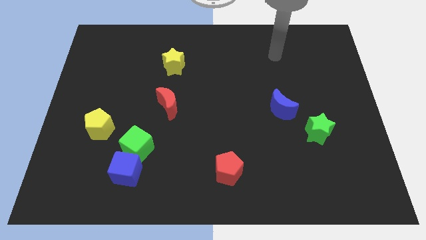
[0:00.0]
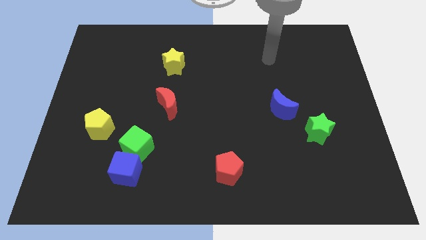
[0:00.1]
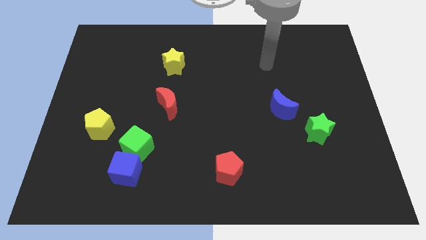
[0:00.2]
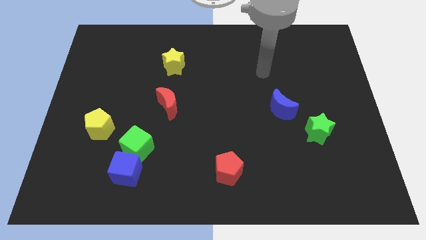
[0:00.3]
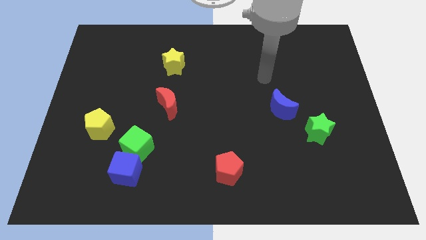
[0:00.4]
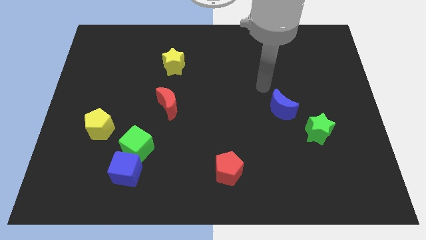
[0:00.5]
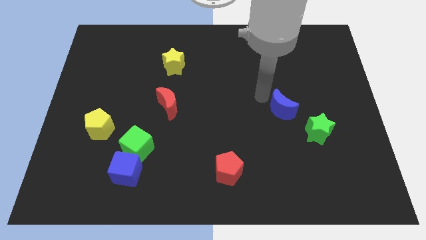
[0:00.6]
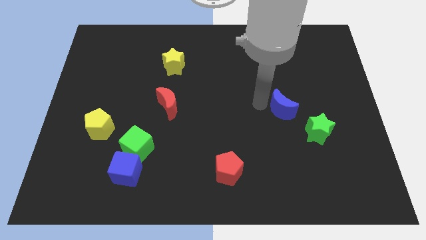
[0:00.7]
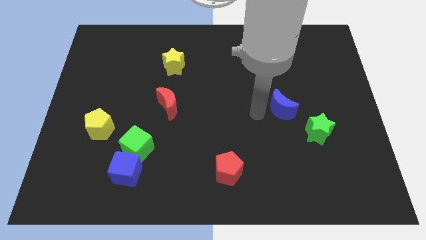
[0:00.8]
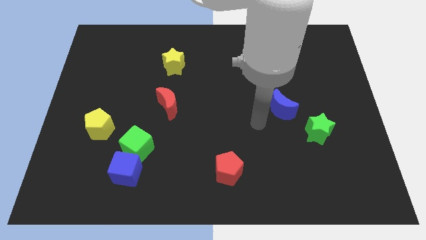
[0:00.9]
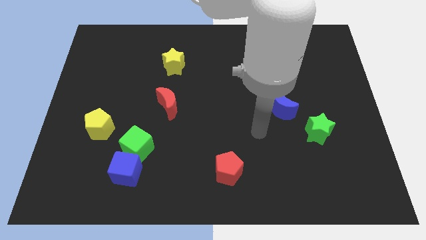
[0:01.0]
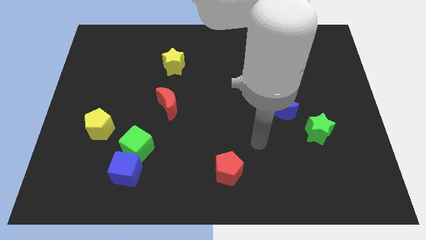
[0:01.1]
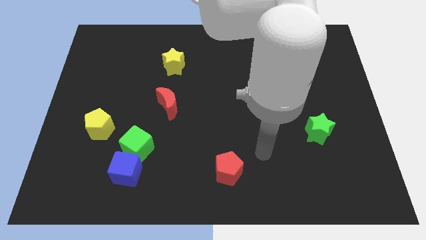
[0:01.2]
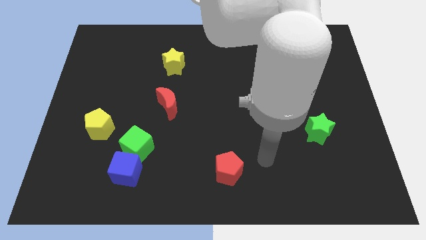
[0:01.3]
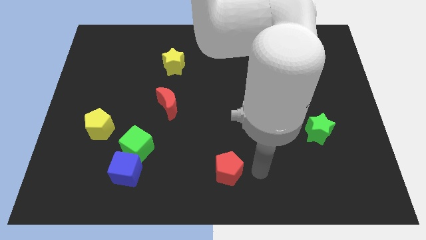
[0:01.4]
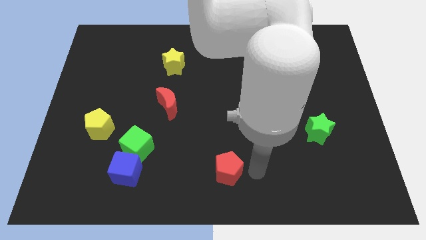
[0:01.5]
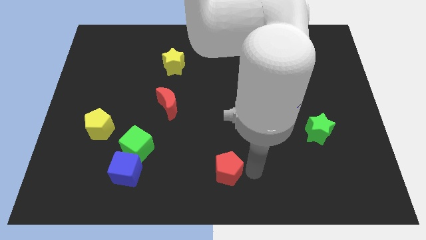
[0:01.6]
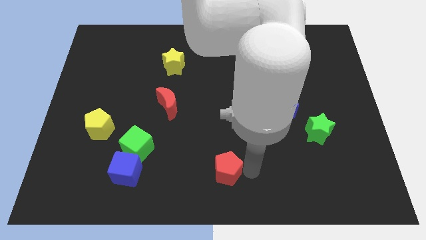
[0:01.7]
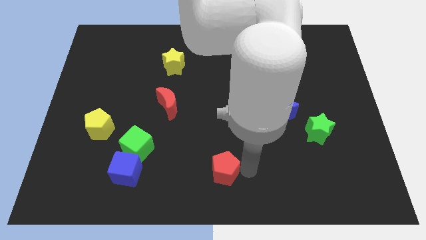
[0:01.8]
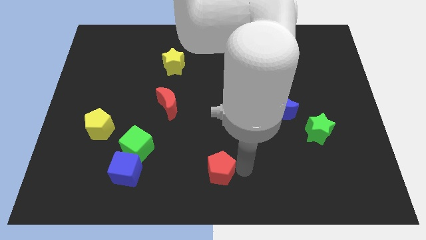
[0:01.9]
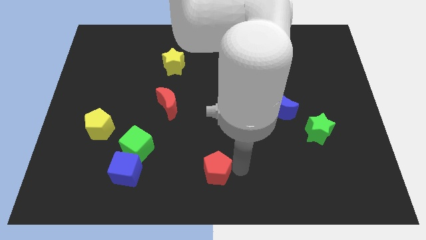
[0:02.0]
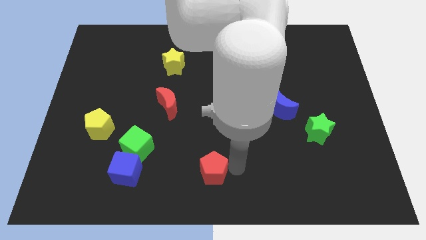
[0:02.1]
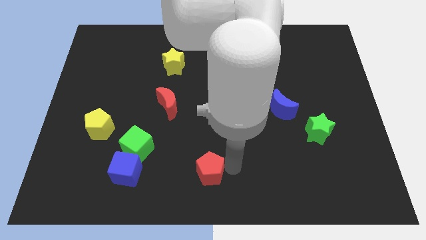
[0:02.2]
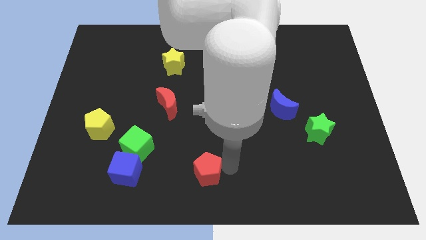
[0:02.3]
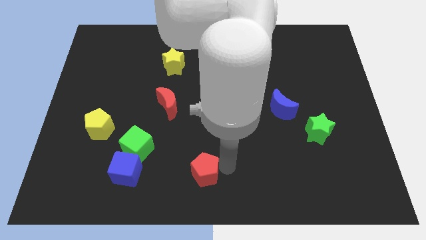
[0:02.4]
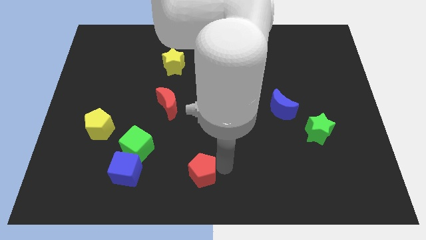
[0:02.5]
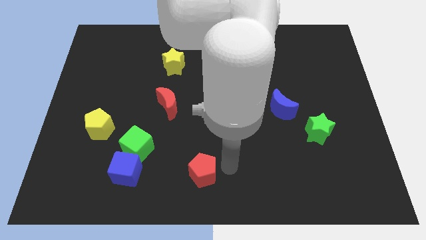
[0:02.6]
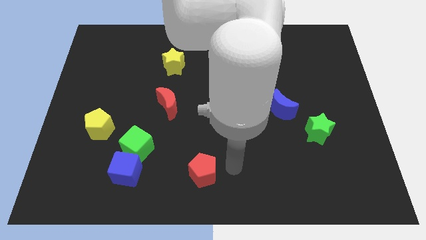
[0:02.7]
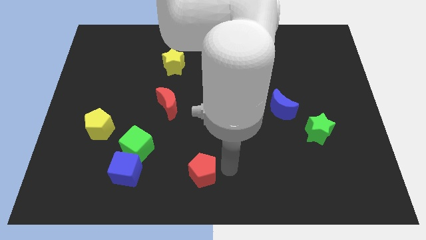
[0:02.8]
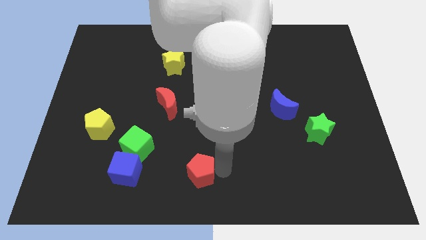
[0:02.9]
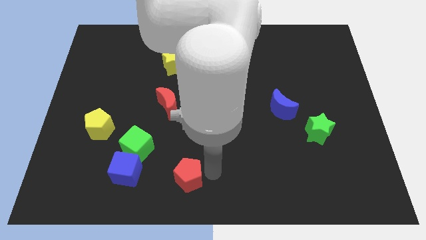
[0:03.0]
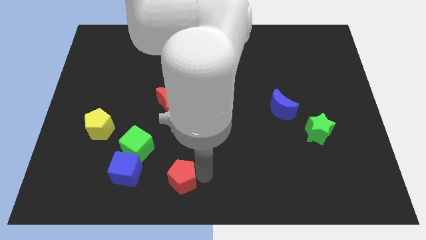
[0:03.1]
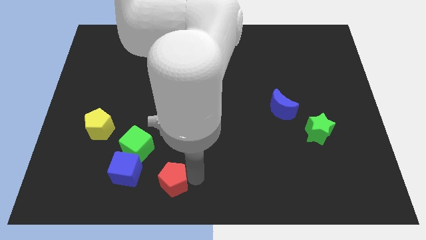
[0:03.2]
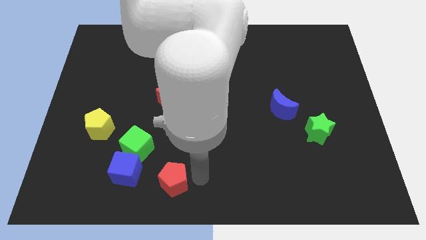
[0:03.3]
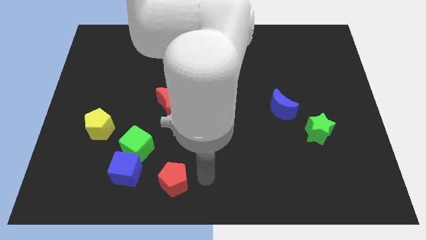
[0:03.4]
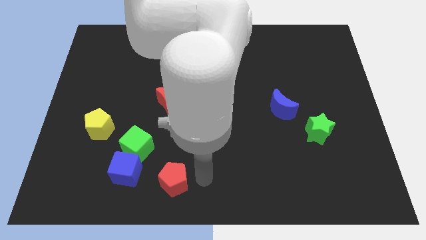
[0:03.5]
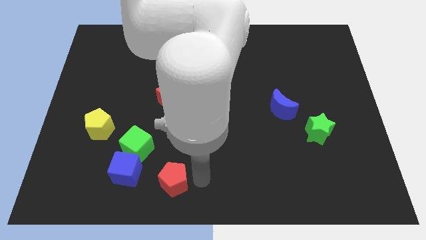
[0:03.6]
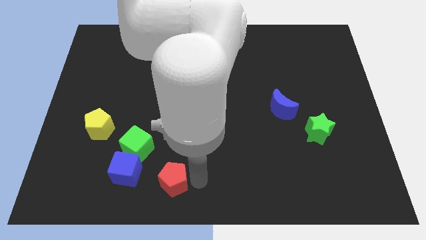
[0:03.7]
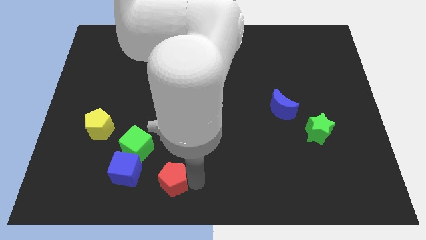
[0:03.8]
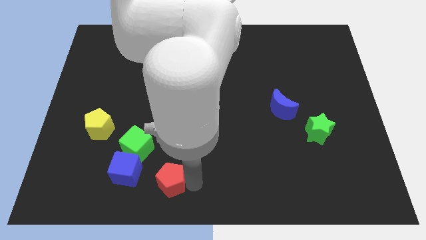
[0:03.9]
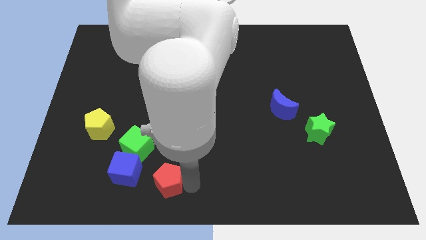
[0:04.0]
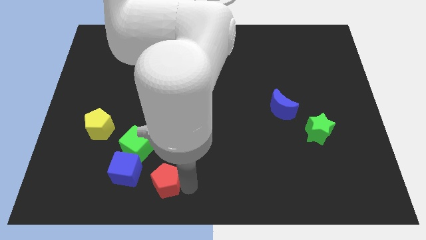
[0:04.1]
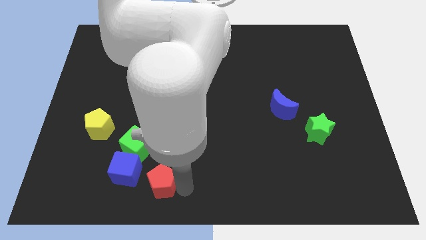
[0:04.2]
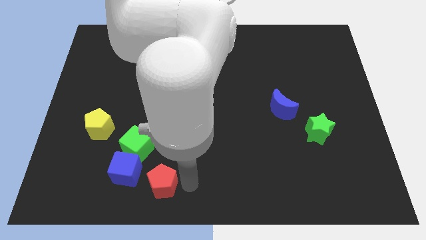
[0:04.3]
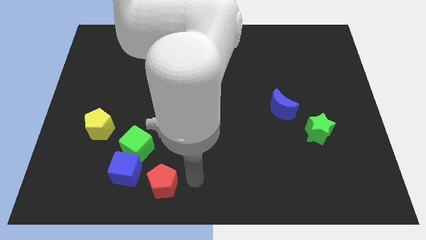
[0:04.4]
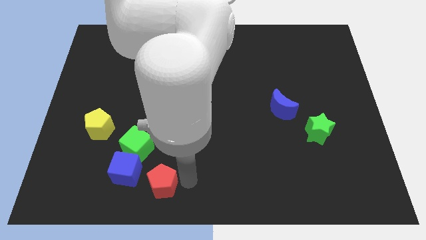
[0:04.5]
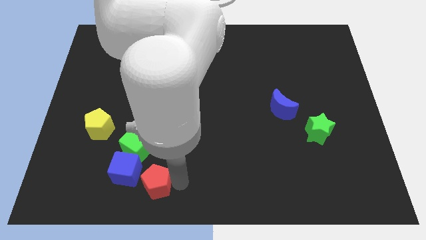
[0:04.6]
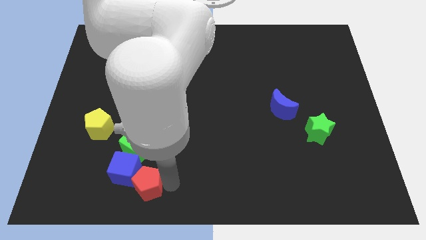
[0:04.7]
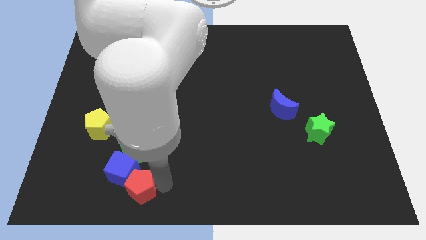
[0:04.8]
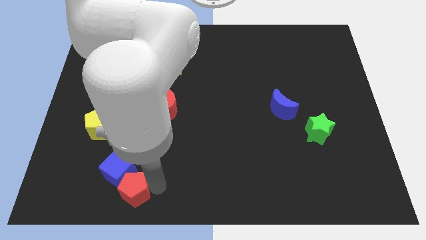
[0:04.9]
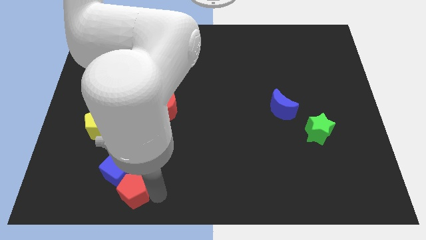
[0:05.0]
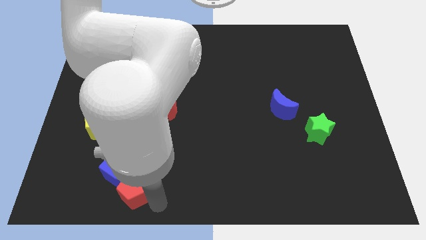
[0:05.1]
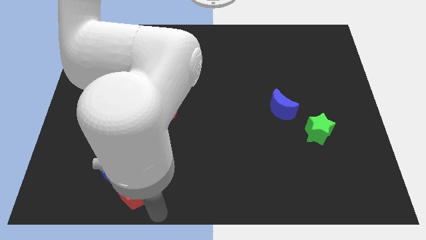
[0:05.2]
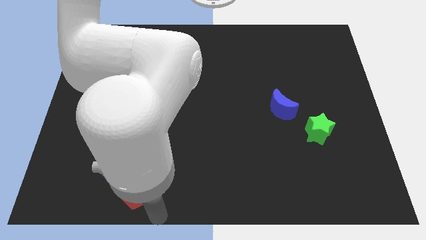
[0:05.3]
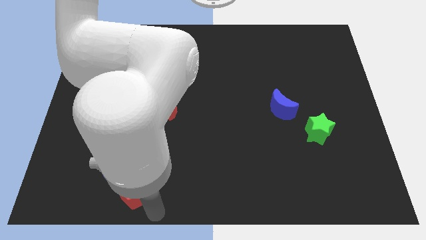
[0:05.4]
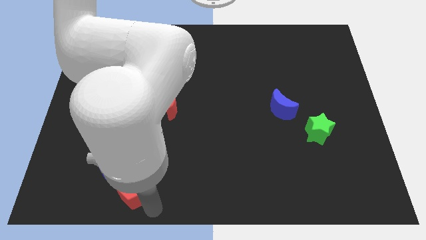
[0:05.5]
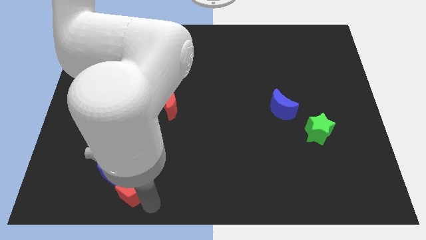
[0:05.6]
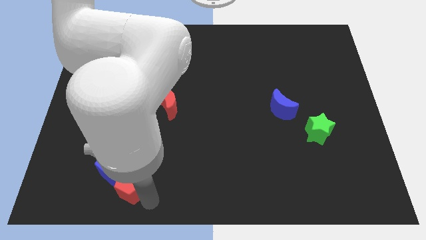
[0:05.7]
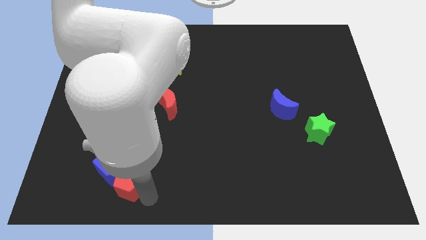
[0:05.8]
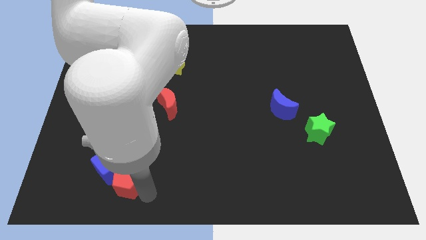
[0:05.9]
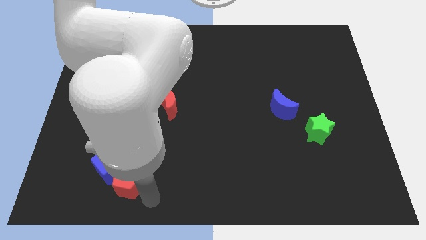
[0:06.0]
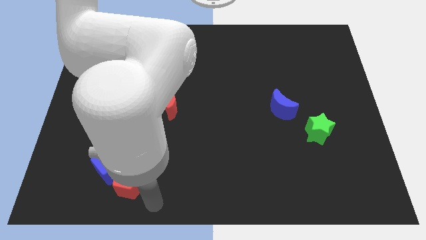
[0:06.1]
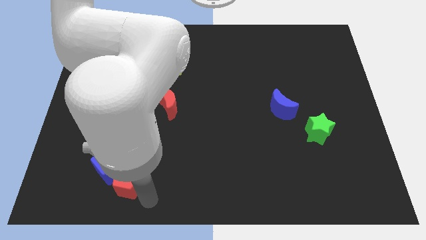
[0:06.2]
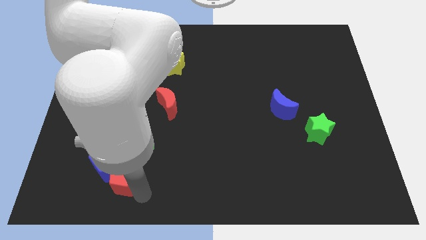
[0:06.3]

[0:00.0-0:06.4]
move the red pentagon to the bottom left of the green cube

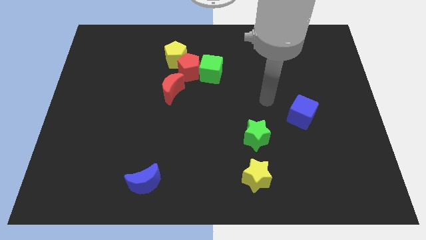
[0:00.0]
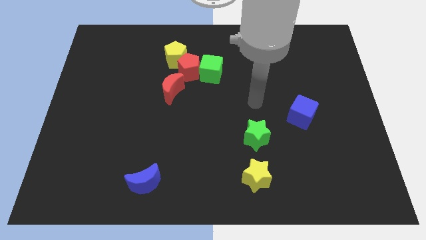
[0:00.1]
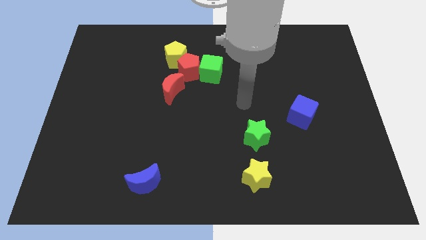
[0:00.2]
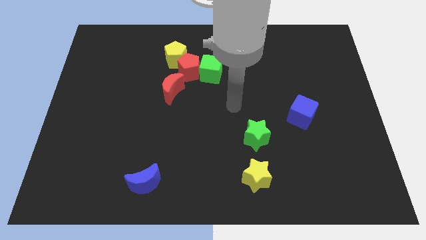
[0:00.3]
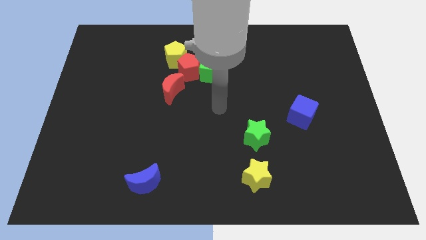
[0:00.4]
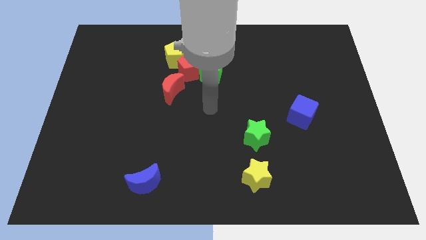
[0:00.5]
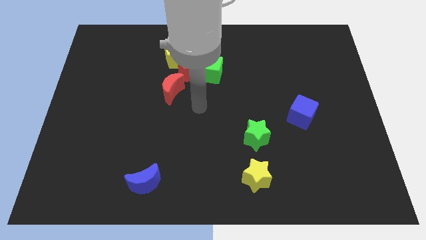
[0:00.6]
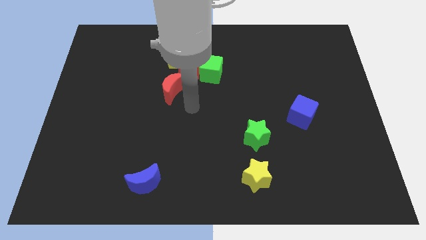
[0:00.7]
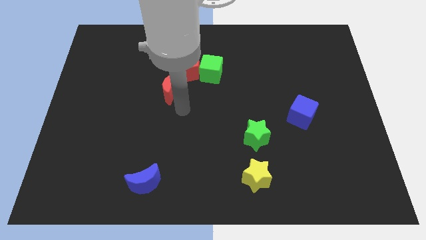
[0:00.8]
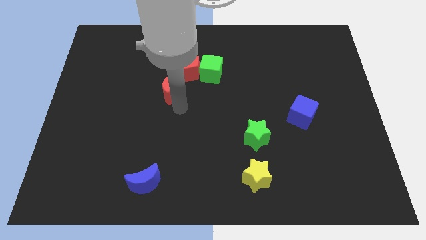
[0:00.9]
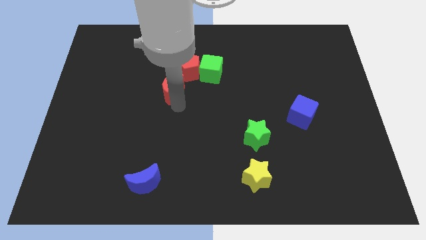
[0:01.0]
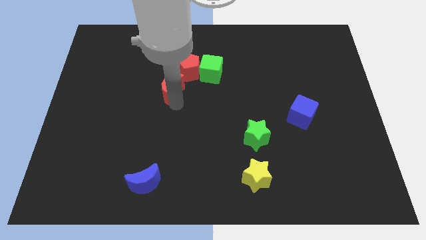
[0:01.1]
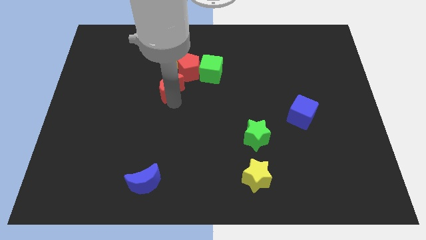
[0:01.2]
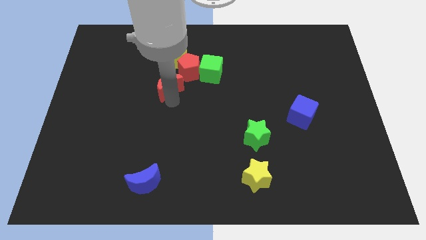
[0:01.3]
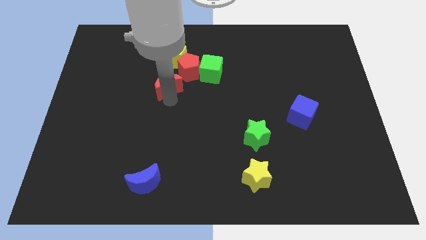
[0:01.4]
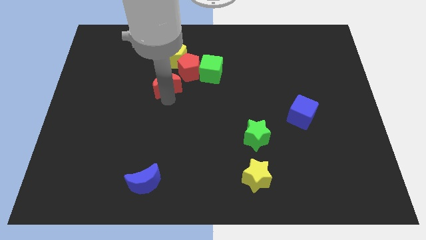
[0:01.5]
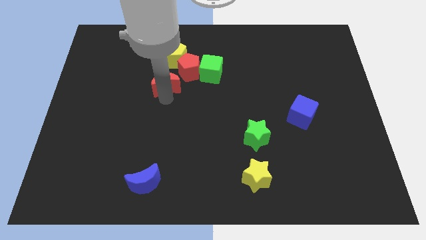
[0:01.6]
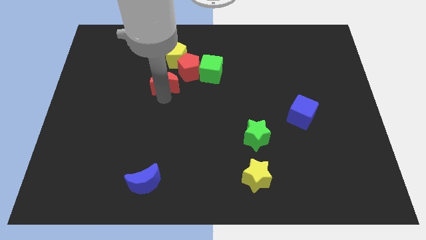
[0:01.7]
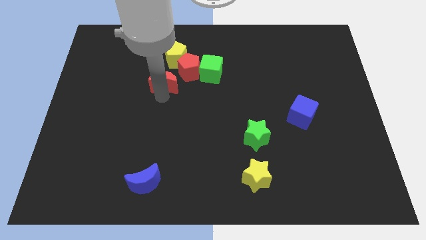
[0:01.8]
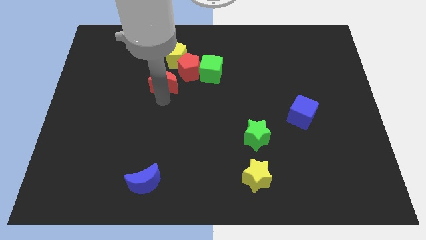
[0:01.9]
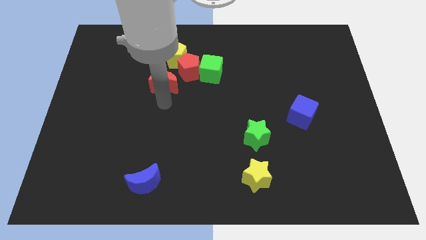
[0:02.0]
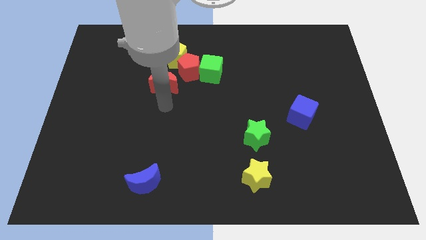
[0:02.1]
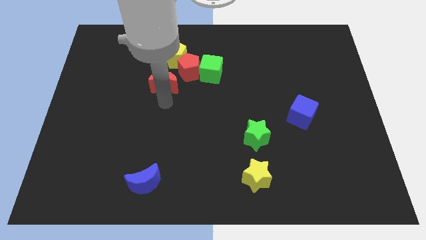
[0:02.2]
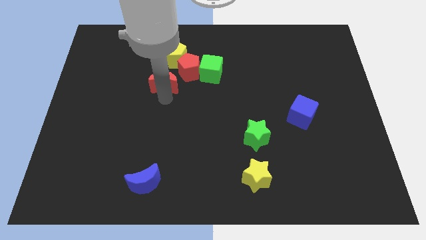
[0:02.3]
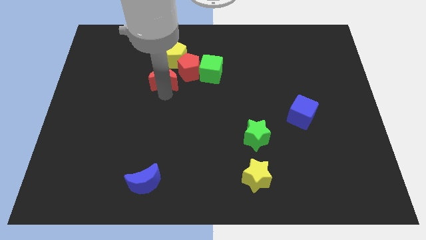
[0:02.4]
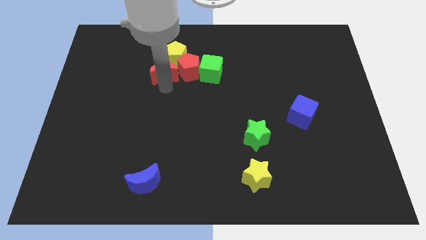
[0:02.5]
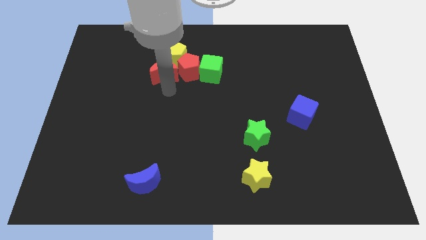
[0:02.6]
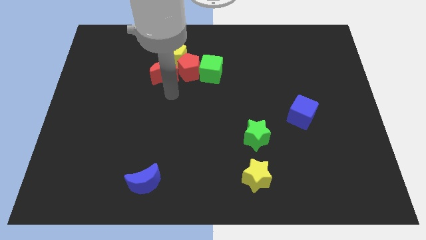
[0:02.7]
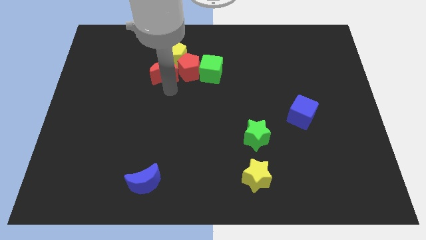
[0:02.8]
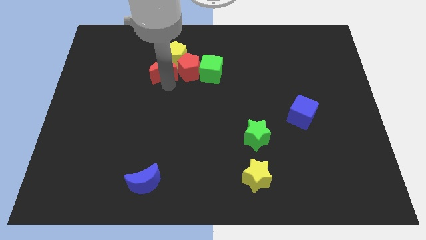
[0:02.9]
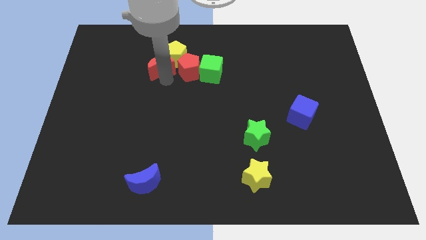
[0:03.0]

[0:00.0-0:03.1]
slide the red moon diagonally up and to the left of the red pentagon
